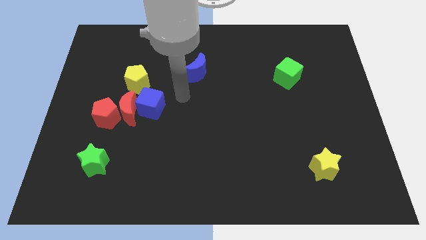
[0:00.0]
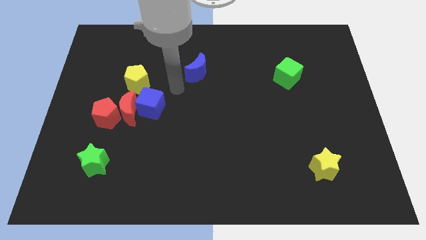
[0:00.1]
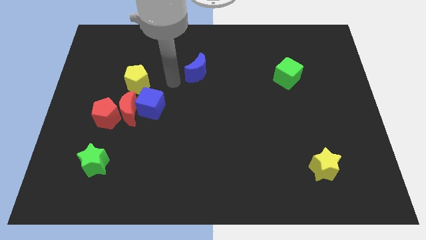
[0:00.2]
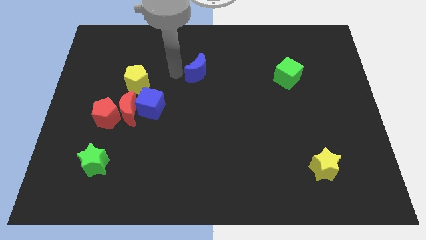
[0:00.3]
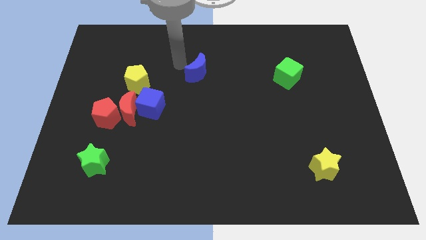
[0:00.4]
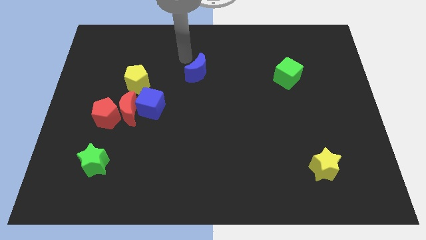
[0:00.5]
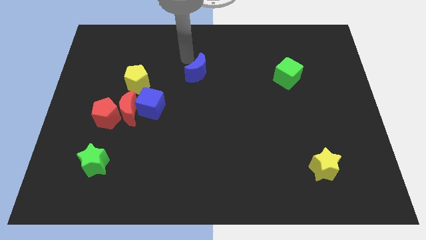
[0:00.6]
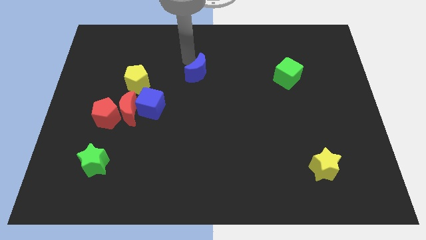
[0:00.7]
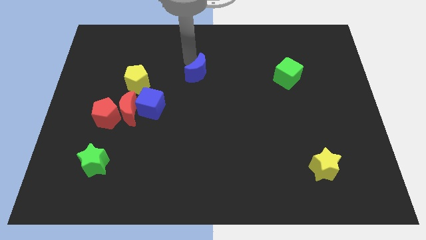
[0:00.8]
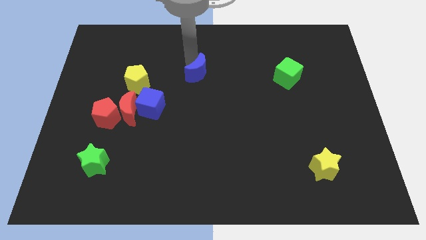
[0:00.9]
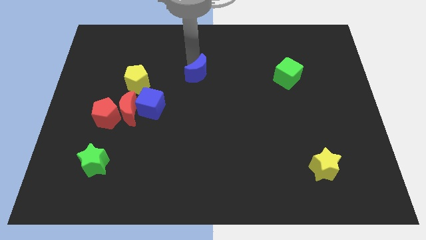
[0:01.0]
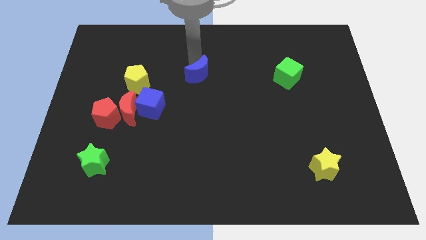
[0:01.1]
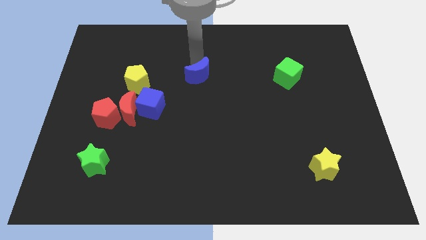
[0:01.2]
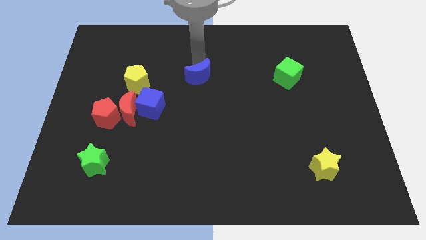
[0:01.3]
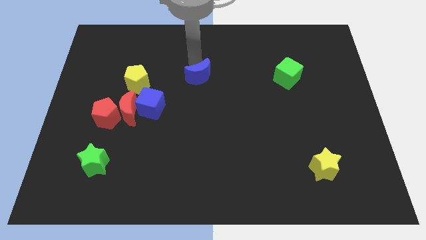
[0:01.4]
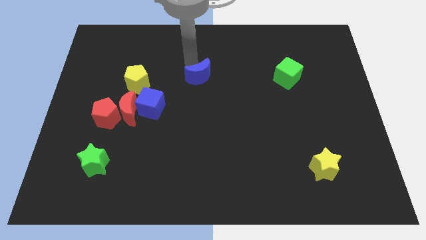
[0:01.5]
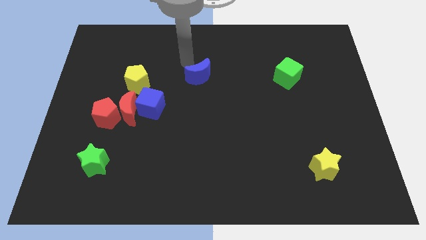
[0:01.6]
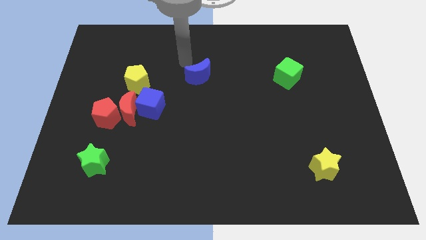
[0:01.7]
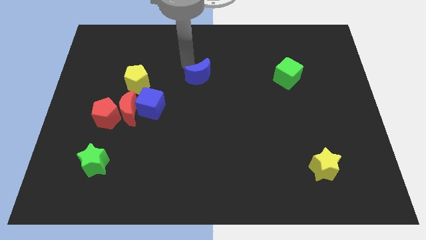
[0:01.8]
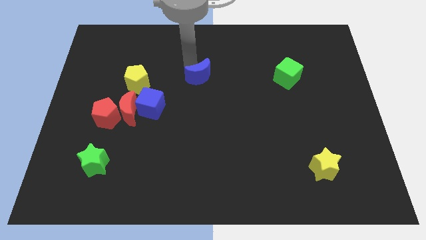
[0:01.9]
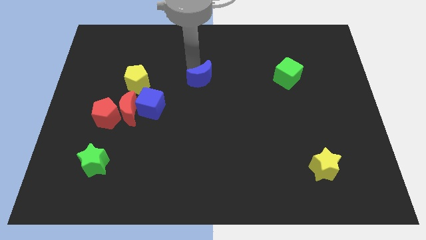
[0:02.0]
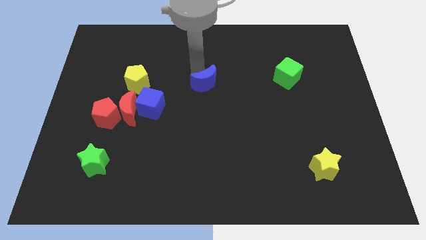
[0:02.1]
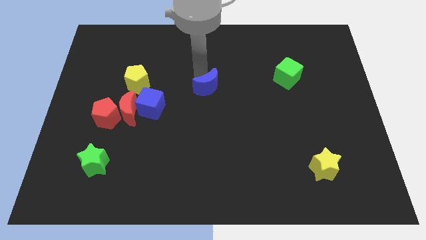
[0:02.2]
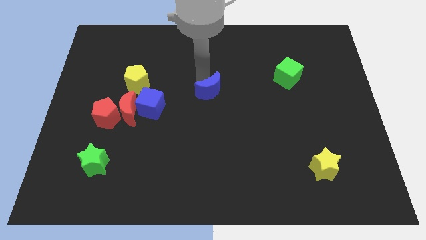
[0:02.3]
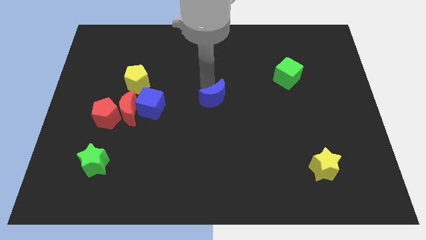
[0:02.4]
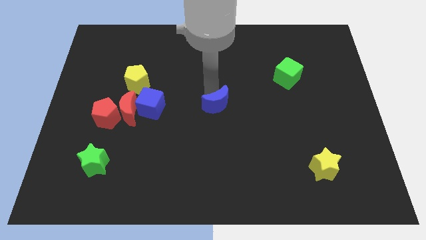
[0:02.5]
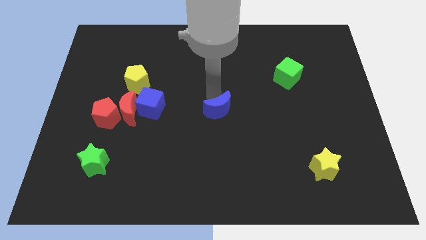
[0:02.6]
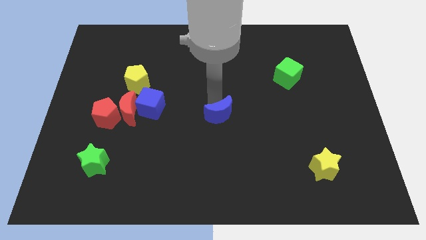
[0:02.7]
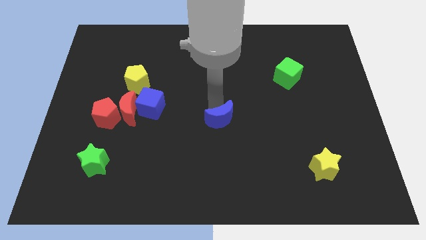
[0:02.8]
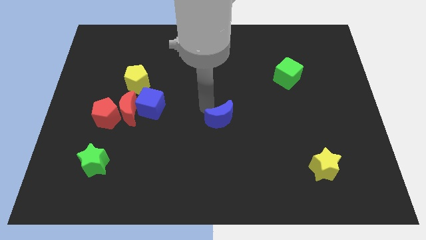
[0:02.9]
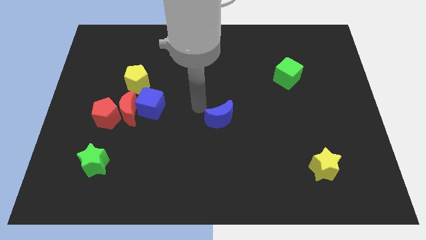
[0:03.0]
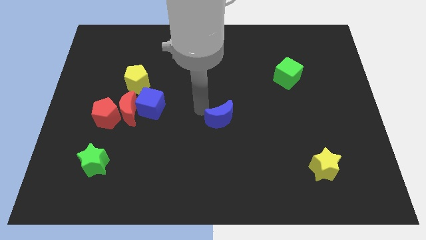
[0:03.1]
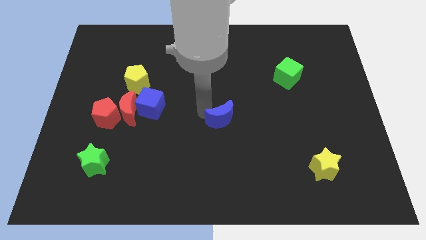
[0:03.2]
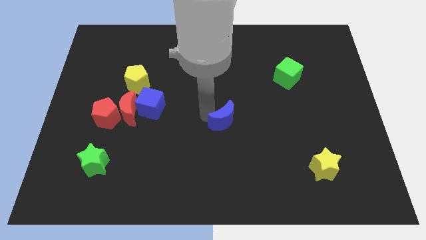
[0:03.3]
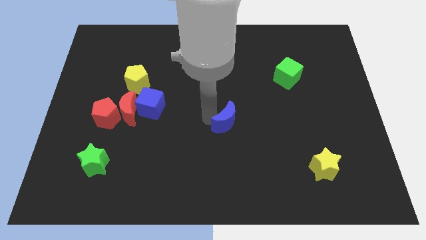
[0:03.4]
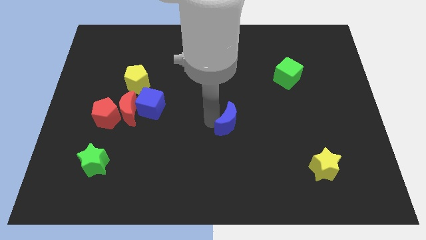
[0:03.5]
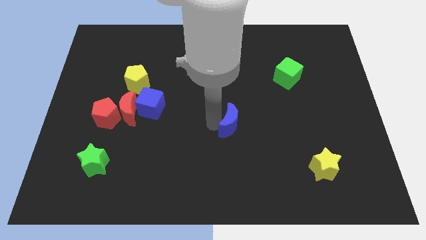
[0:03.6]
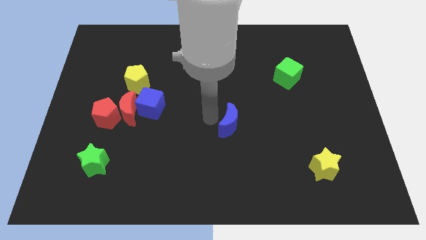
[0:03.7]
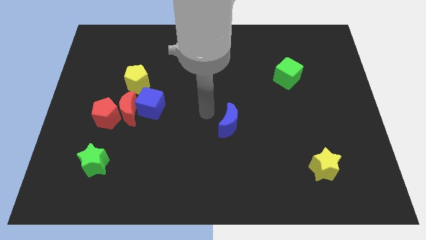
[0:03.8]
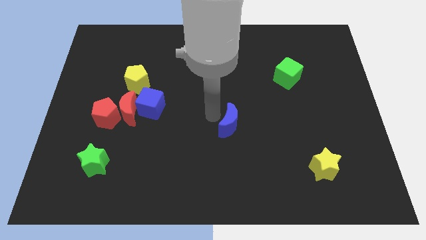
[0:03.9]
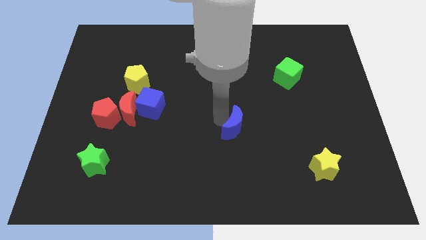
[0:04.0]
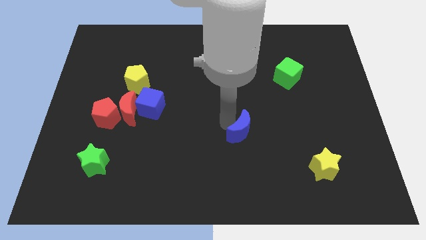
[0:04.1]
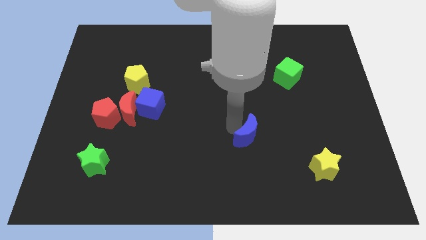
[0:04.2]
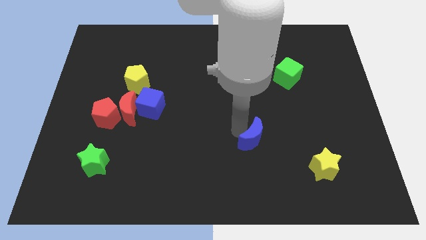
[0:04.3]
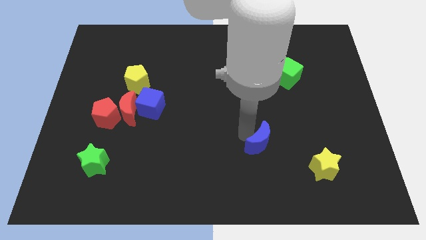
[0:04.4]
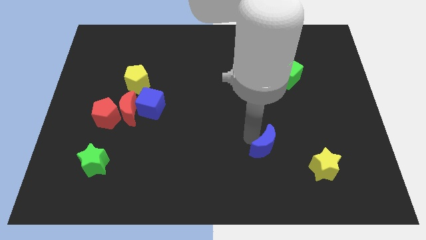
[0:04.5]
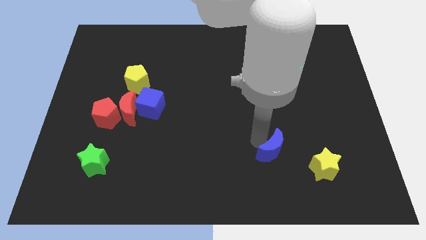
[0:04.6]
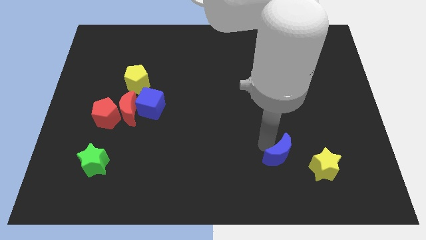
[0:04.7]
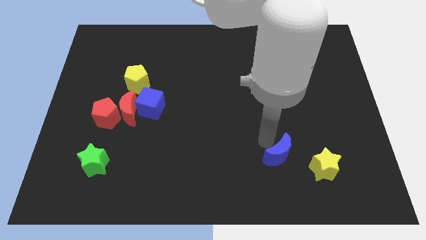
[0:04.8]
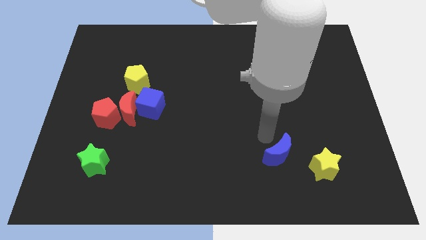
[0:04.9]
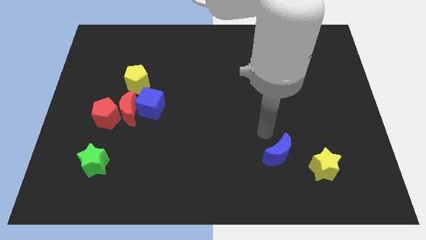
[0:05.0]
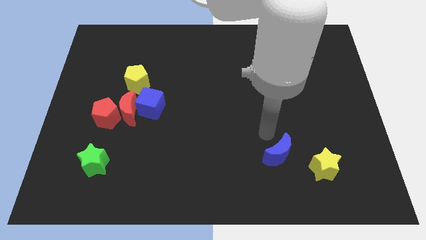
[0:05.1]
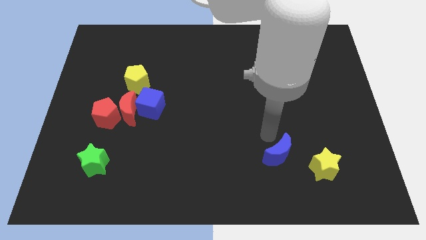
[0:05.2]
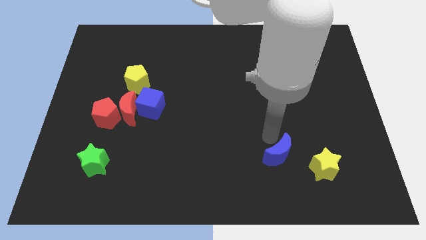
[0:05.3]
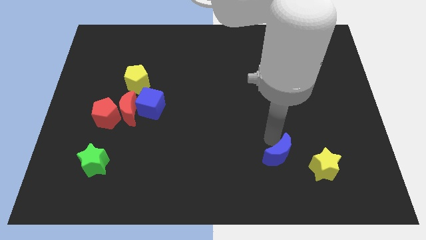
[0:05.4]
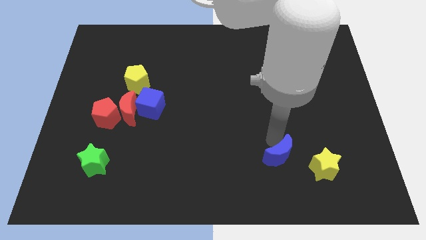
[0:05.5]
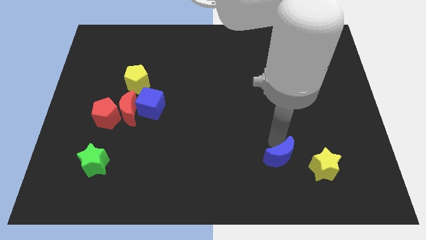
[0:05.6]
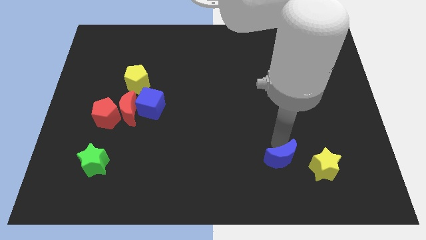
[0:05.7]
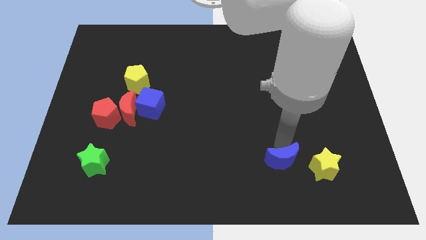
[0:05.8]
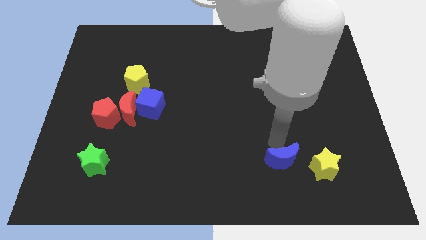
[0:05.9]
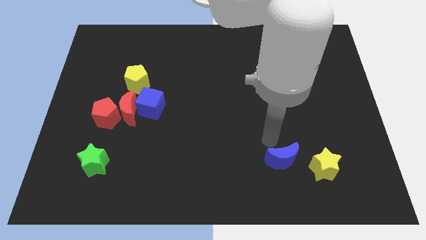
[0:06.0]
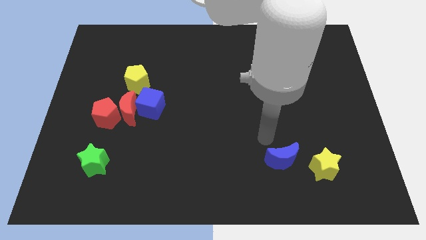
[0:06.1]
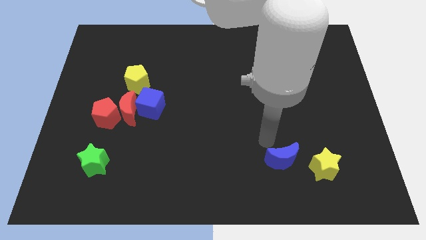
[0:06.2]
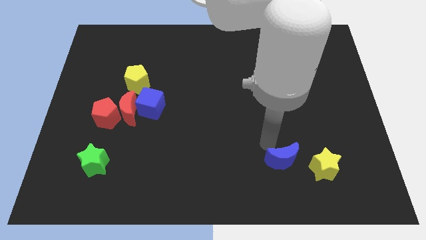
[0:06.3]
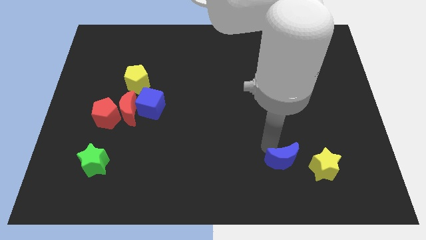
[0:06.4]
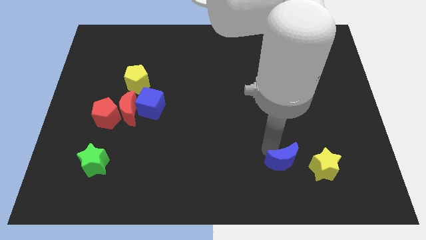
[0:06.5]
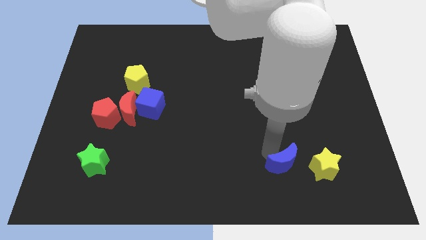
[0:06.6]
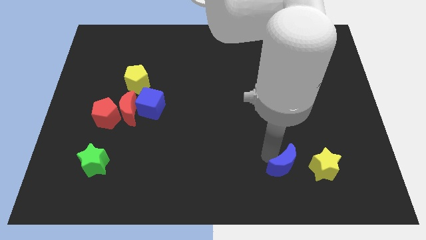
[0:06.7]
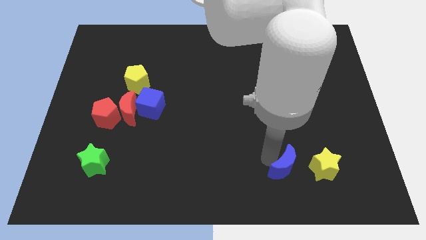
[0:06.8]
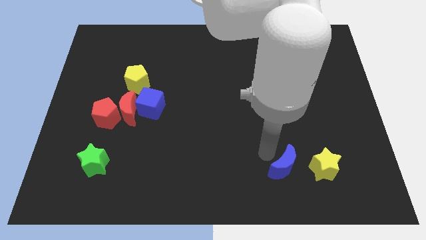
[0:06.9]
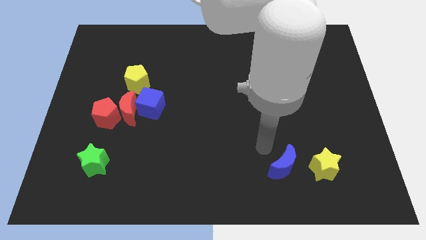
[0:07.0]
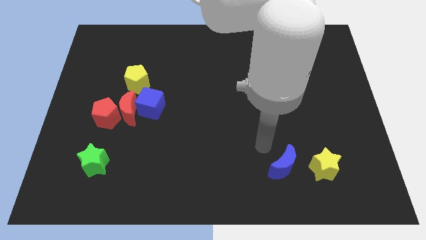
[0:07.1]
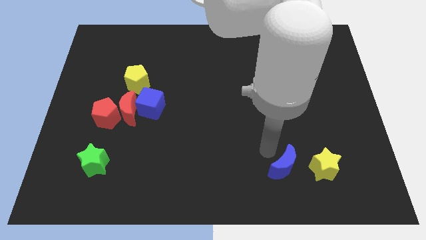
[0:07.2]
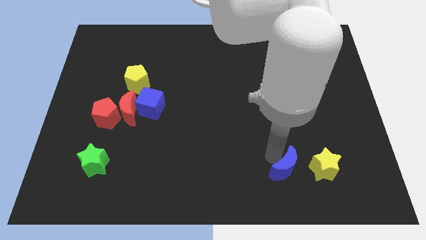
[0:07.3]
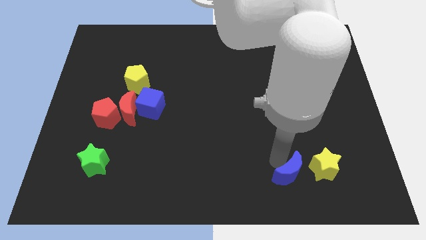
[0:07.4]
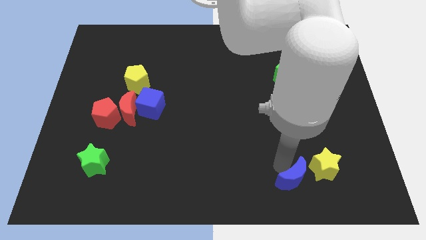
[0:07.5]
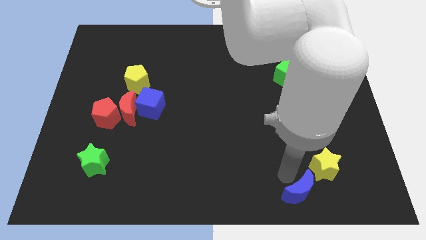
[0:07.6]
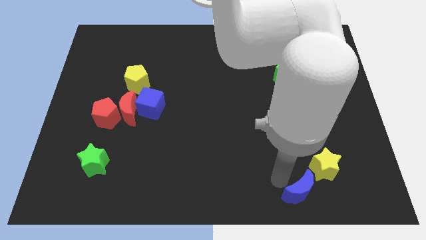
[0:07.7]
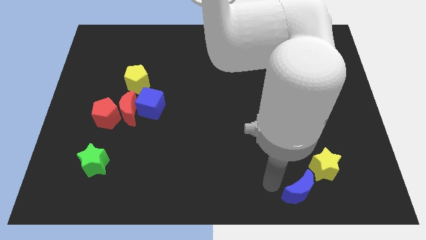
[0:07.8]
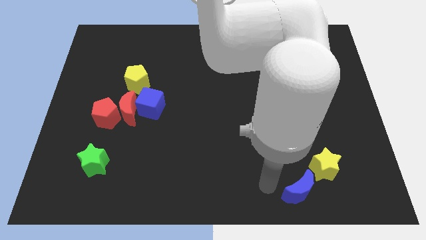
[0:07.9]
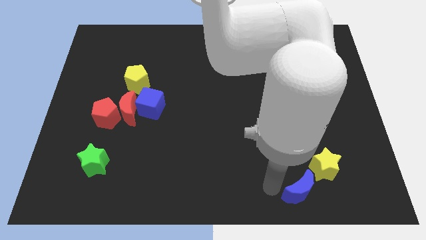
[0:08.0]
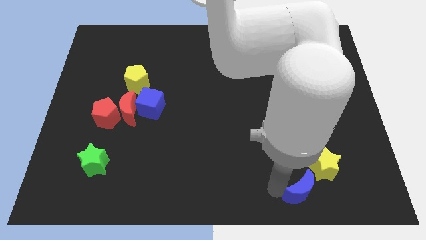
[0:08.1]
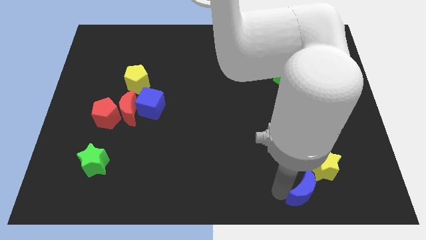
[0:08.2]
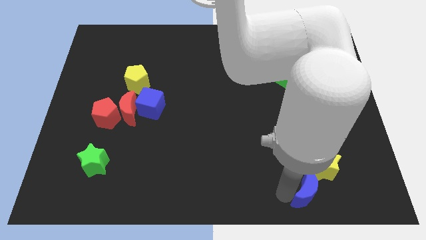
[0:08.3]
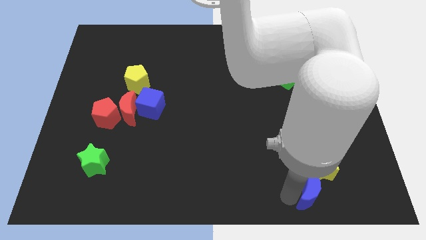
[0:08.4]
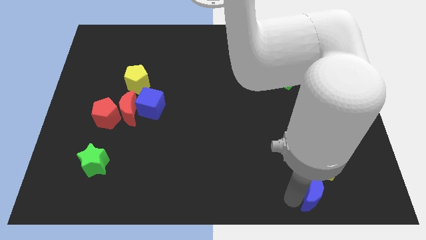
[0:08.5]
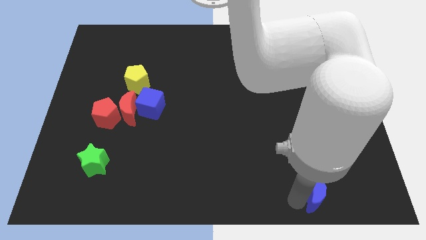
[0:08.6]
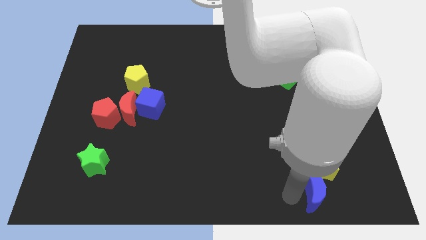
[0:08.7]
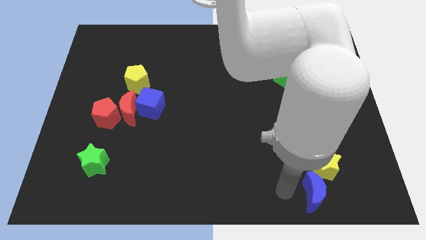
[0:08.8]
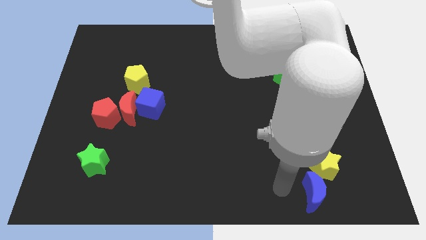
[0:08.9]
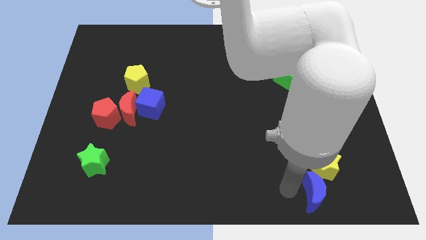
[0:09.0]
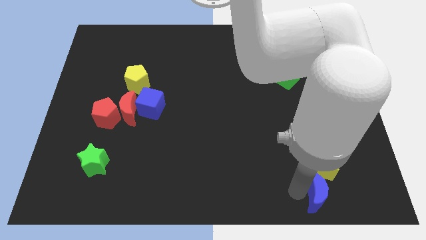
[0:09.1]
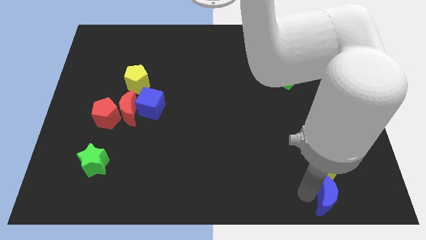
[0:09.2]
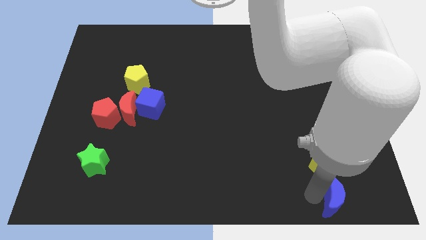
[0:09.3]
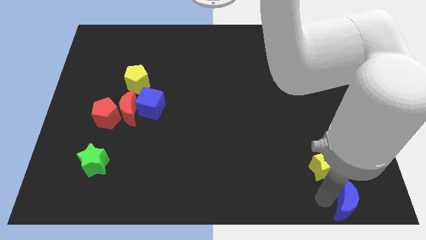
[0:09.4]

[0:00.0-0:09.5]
push the blue moon to the bottom right
